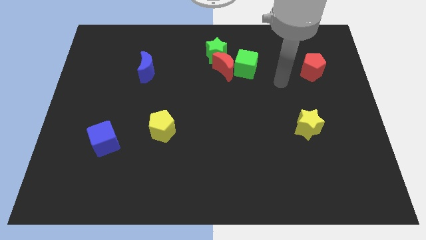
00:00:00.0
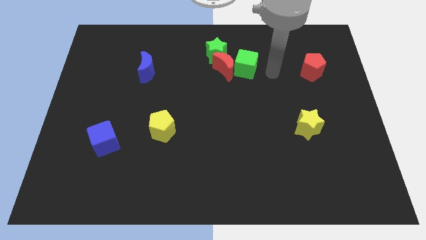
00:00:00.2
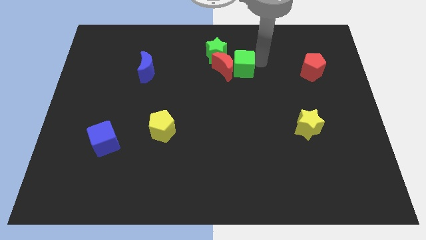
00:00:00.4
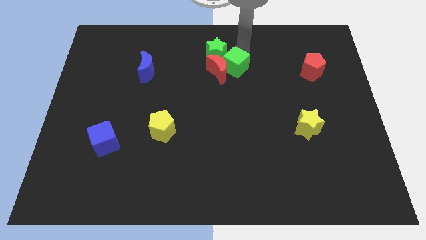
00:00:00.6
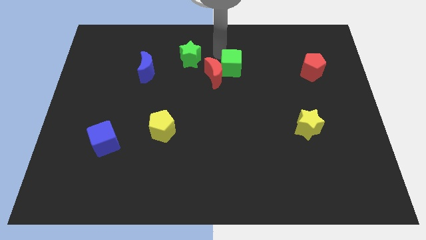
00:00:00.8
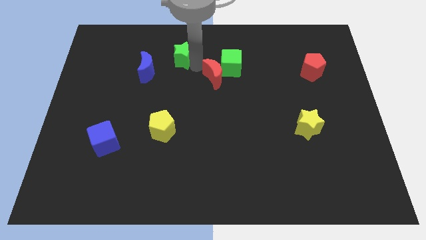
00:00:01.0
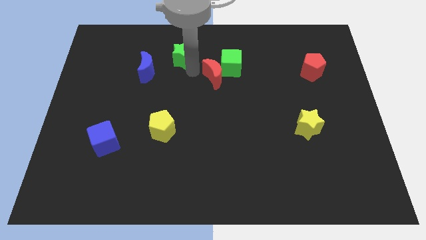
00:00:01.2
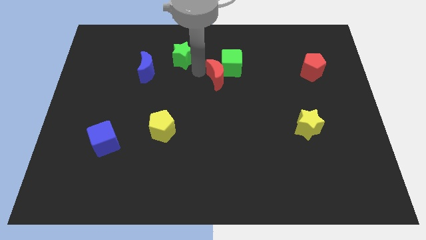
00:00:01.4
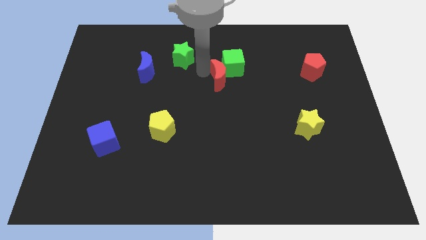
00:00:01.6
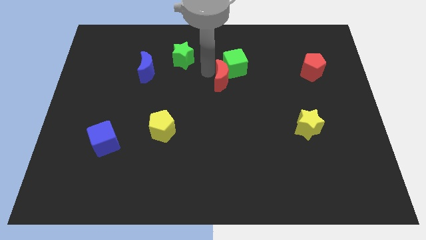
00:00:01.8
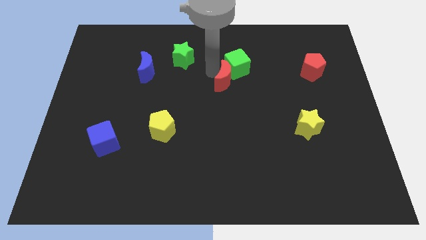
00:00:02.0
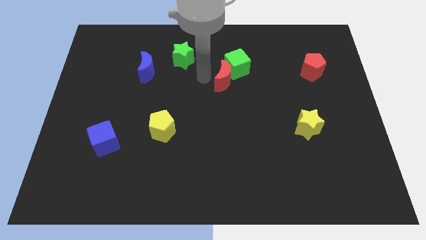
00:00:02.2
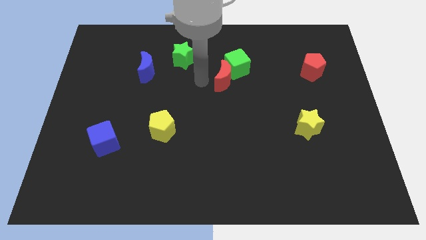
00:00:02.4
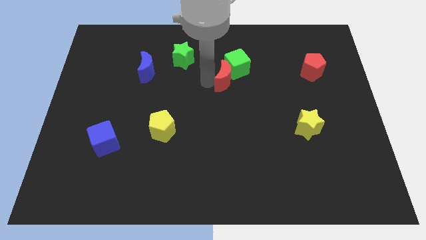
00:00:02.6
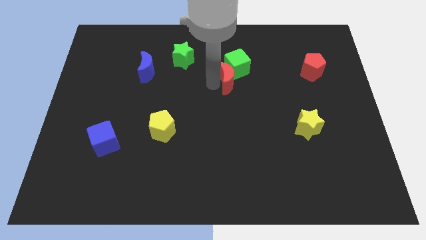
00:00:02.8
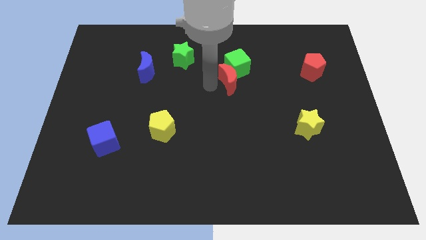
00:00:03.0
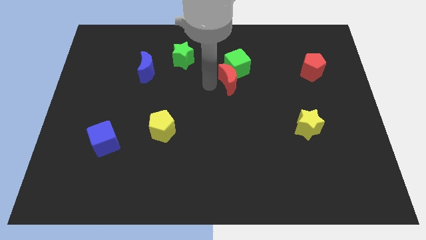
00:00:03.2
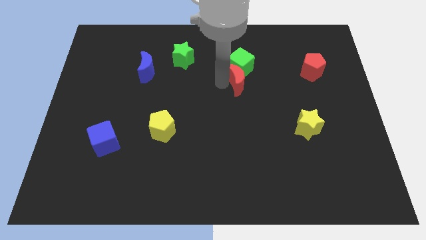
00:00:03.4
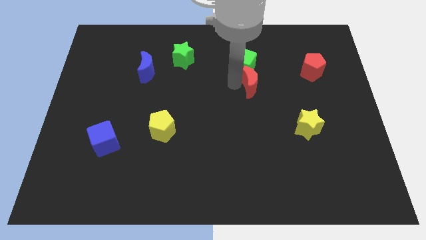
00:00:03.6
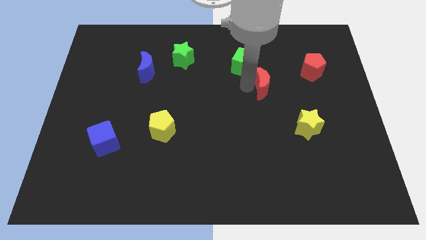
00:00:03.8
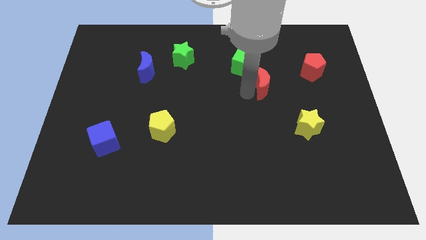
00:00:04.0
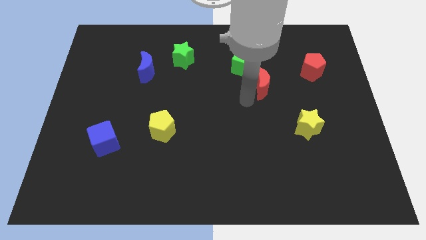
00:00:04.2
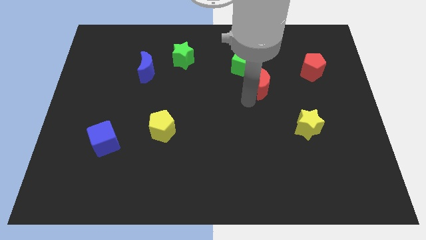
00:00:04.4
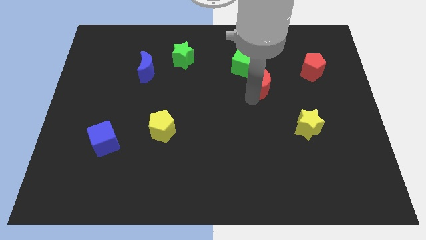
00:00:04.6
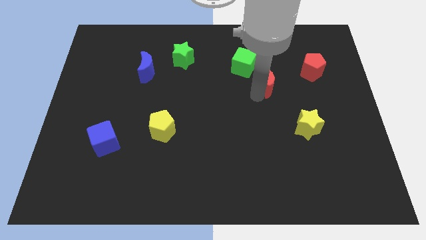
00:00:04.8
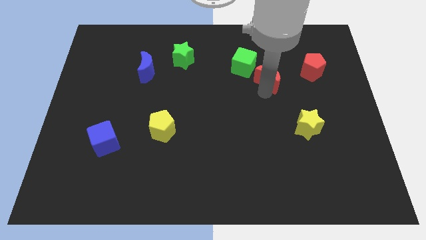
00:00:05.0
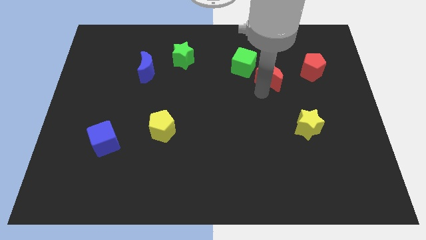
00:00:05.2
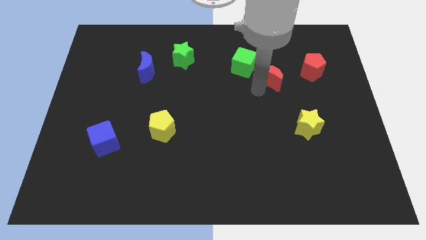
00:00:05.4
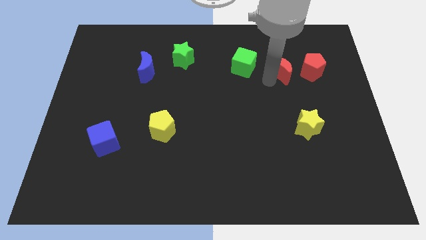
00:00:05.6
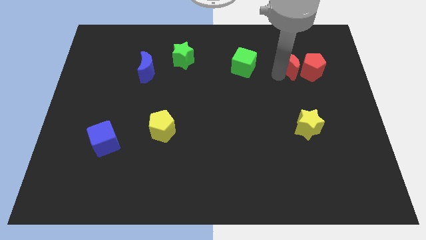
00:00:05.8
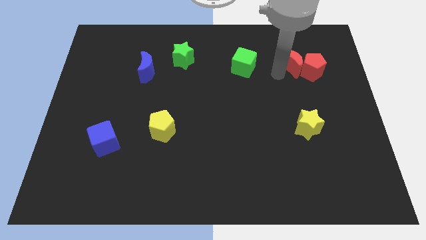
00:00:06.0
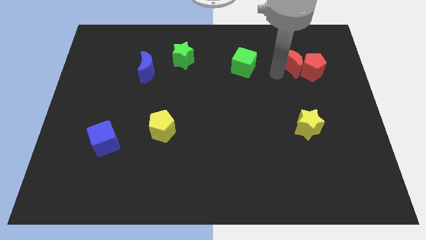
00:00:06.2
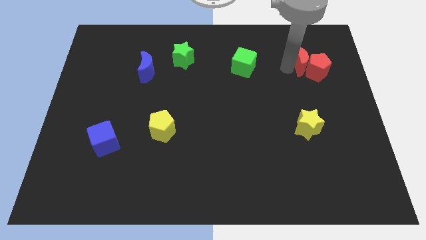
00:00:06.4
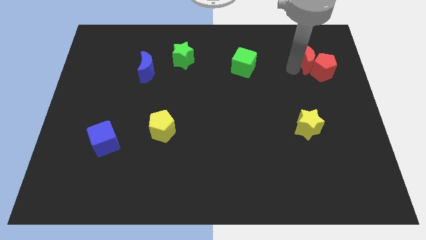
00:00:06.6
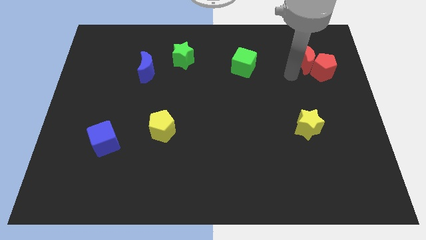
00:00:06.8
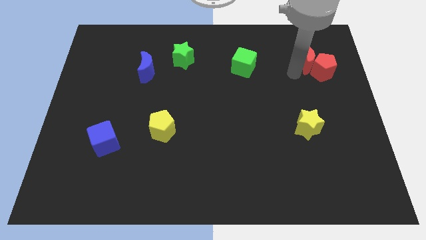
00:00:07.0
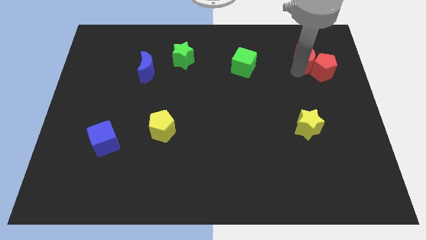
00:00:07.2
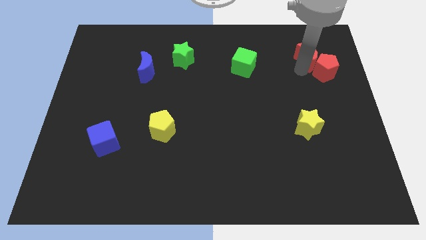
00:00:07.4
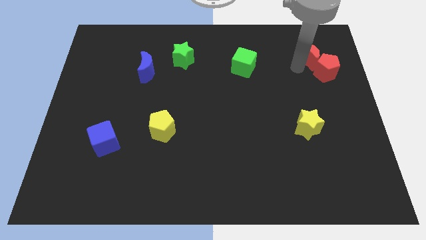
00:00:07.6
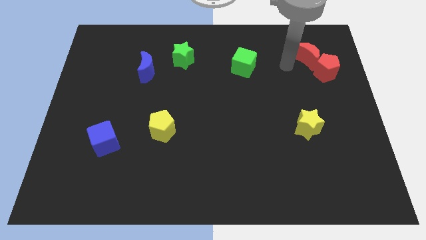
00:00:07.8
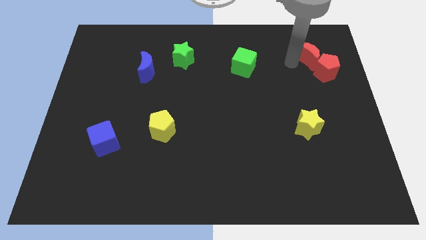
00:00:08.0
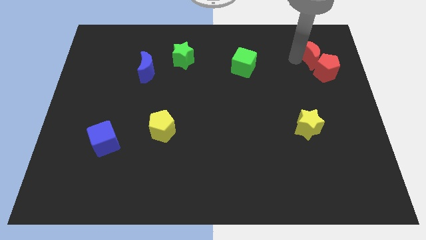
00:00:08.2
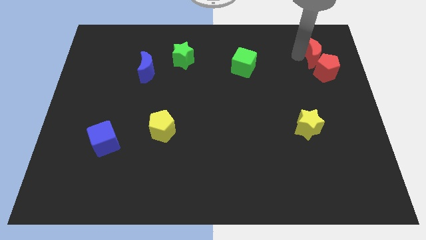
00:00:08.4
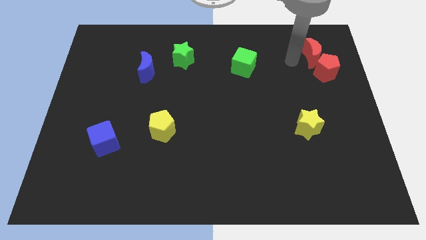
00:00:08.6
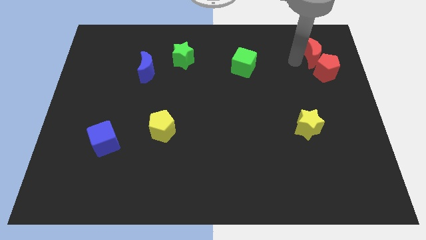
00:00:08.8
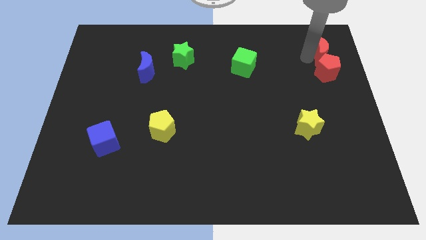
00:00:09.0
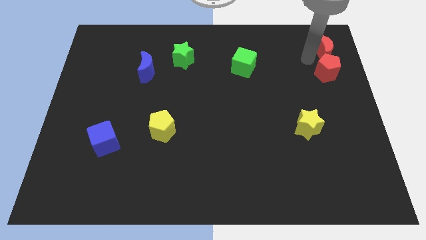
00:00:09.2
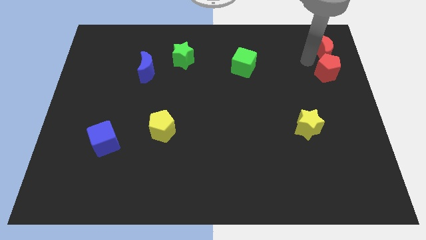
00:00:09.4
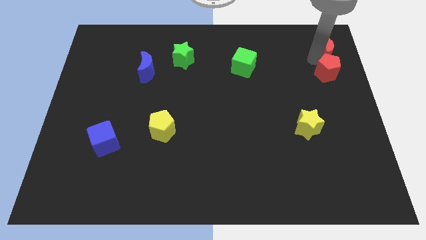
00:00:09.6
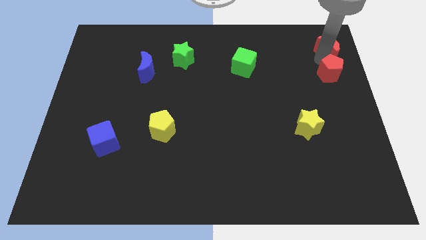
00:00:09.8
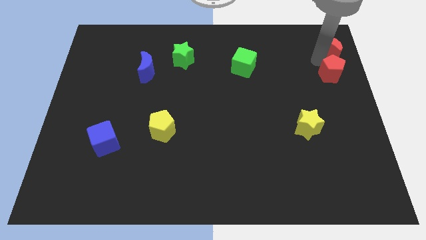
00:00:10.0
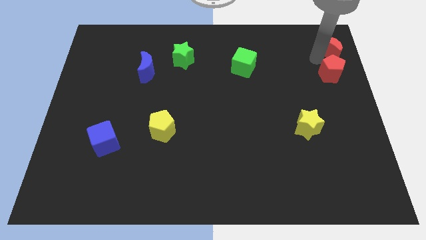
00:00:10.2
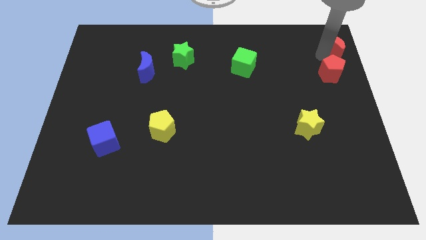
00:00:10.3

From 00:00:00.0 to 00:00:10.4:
push the red moon to the top right

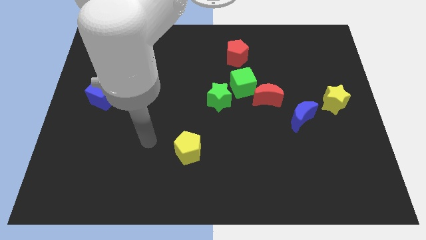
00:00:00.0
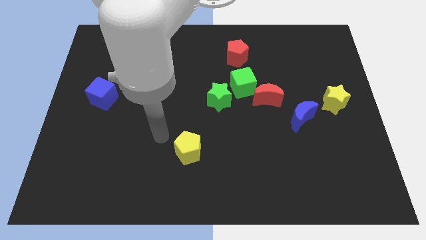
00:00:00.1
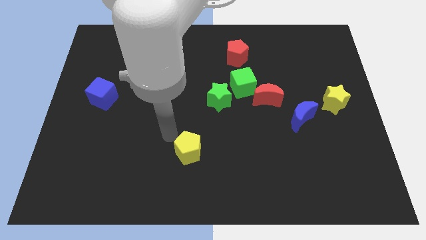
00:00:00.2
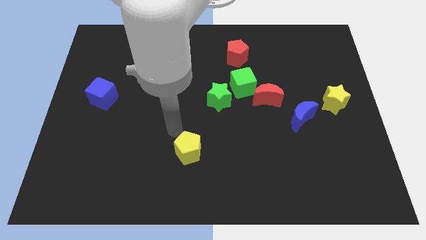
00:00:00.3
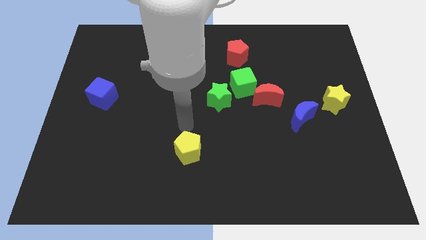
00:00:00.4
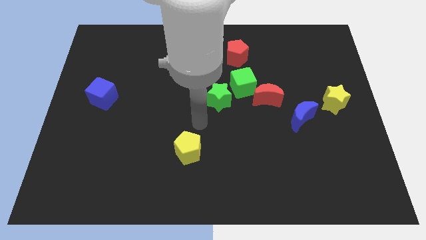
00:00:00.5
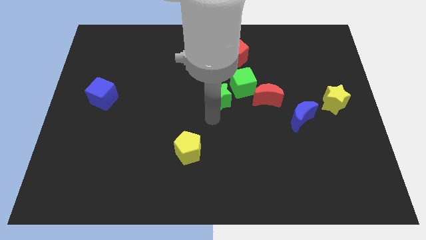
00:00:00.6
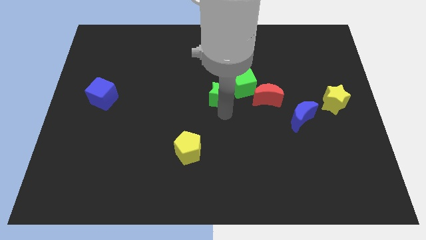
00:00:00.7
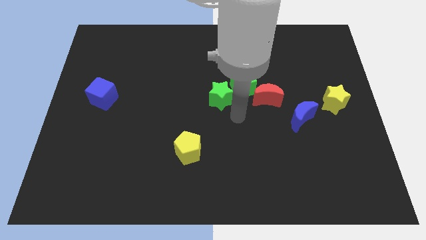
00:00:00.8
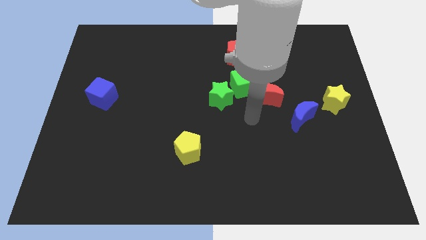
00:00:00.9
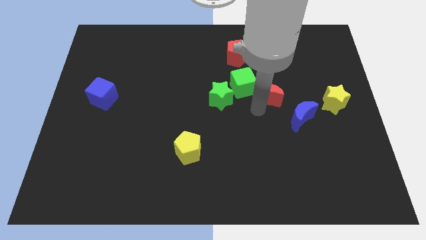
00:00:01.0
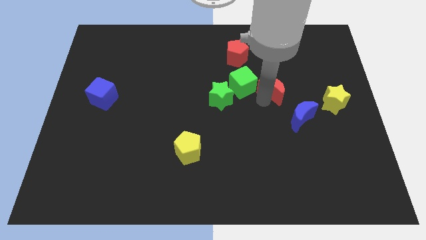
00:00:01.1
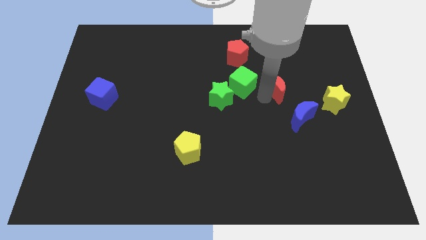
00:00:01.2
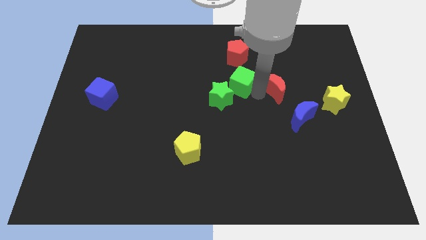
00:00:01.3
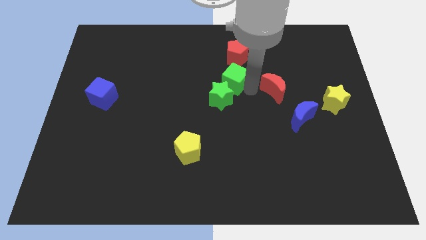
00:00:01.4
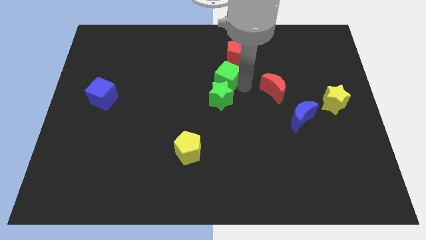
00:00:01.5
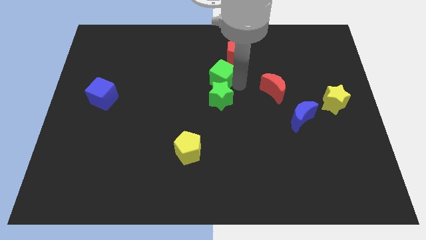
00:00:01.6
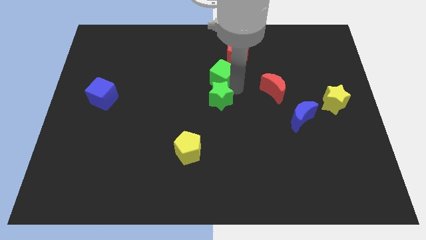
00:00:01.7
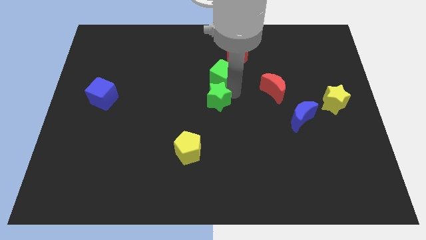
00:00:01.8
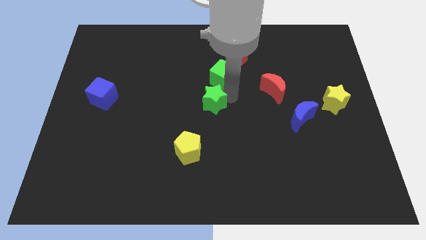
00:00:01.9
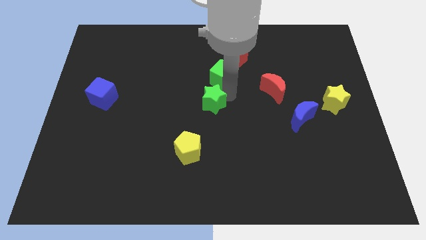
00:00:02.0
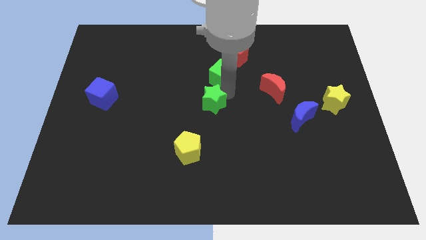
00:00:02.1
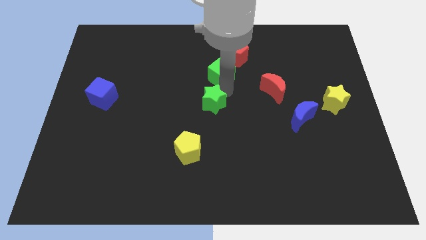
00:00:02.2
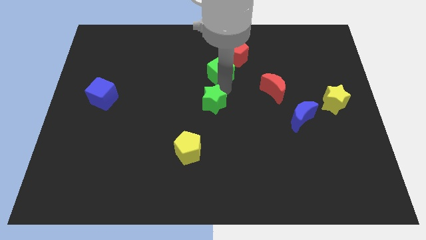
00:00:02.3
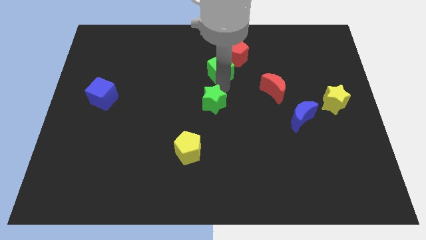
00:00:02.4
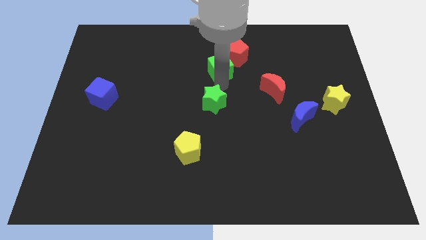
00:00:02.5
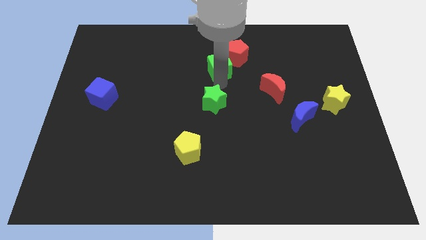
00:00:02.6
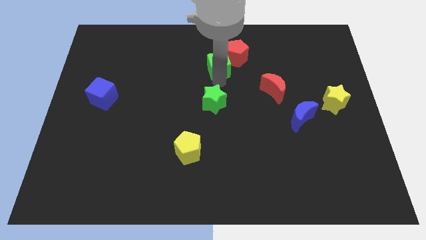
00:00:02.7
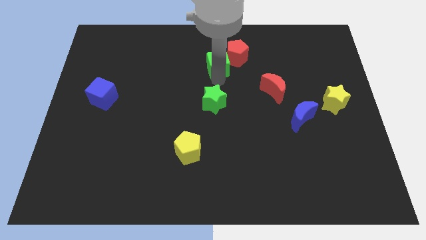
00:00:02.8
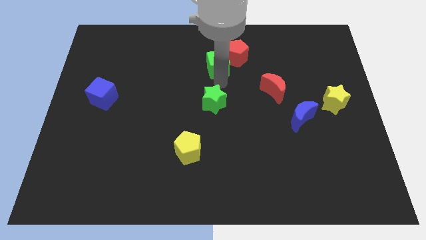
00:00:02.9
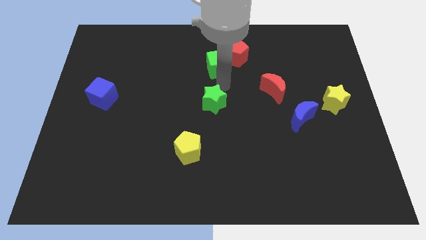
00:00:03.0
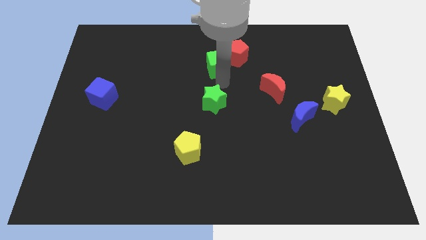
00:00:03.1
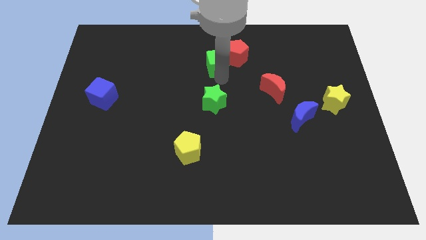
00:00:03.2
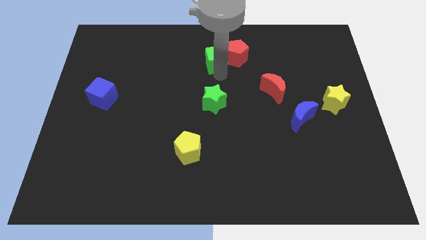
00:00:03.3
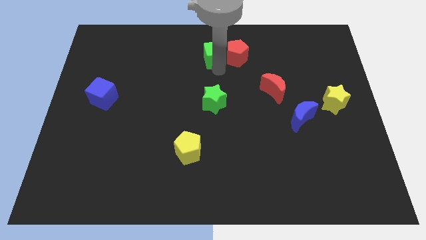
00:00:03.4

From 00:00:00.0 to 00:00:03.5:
move the green cube to the top side
